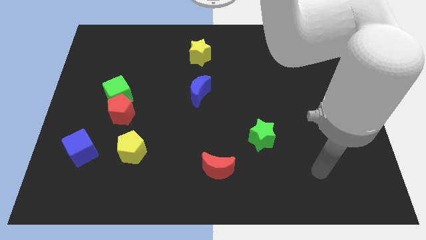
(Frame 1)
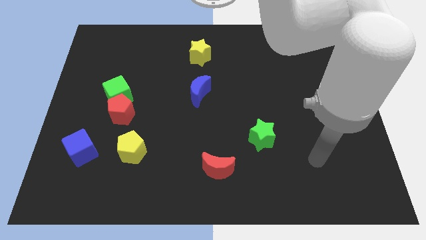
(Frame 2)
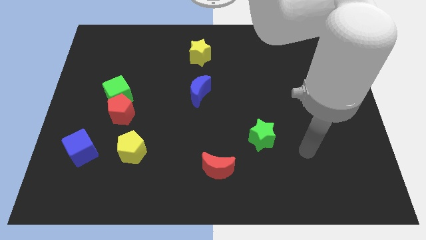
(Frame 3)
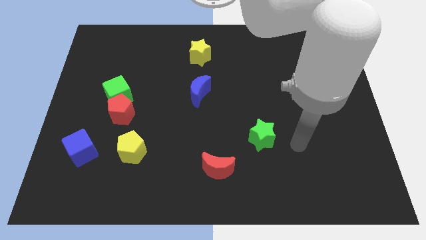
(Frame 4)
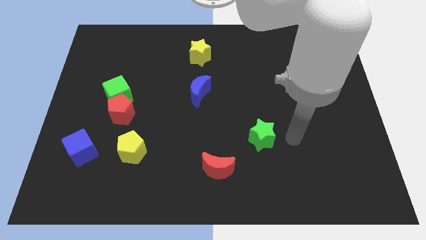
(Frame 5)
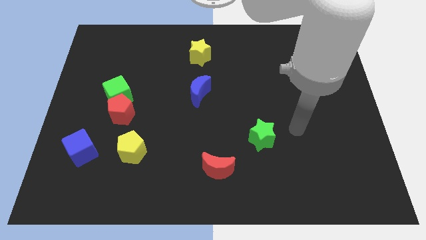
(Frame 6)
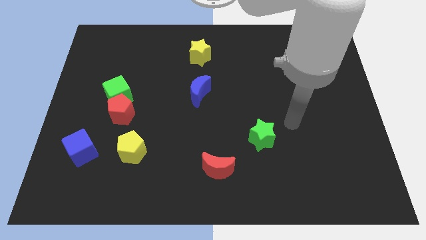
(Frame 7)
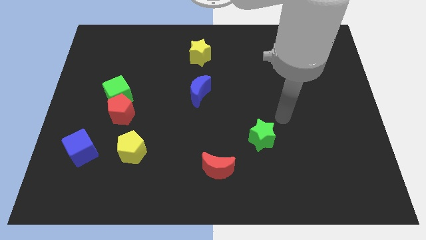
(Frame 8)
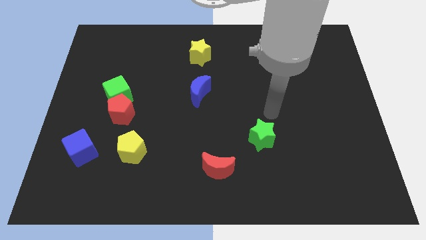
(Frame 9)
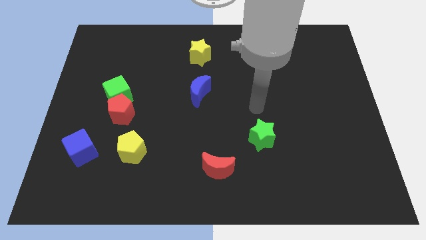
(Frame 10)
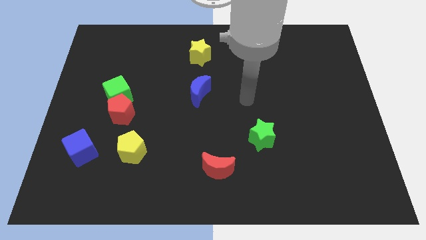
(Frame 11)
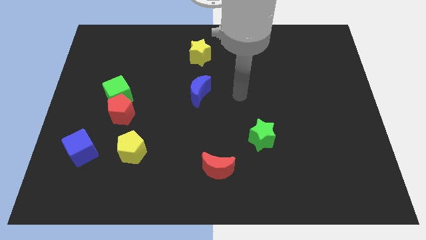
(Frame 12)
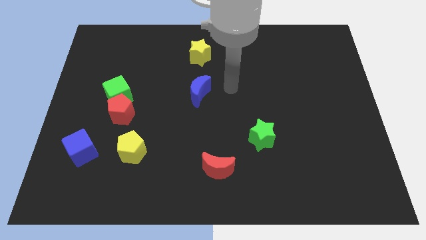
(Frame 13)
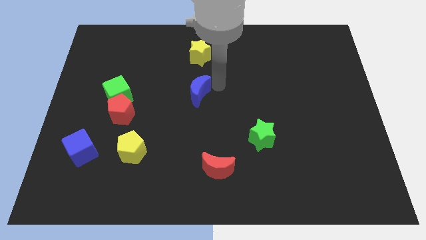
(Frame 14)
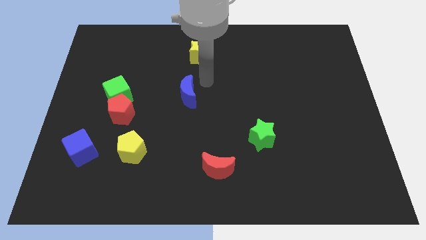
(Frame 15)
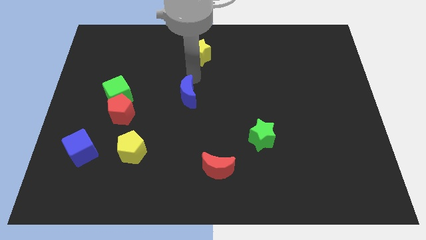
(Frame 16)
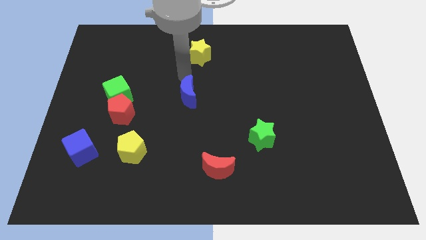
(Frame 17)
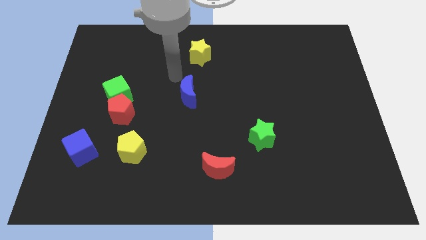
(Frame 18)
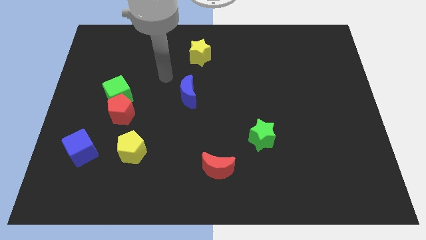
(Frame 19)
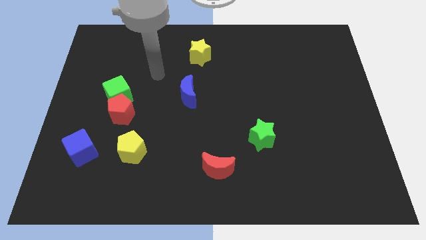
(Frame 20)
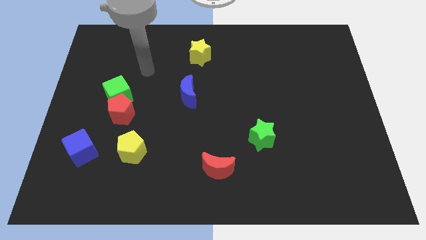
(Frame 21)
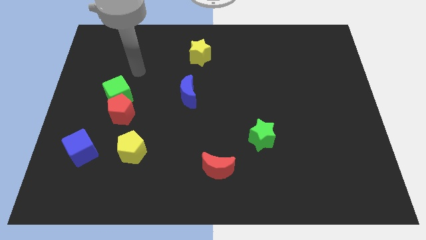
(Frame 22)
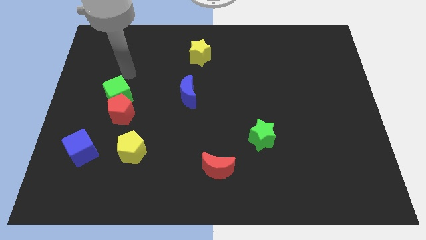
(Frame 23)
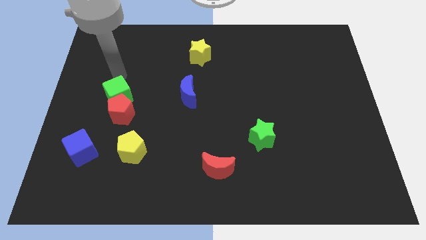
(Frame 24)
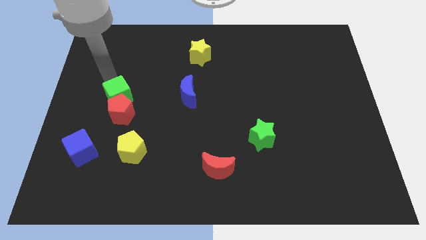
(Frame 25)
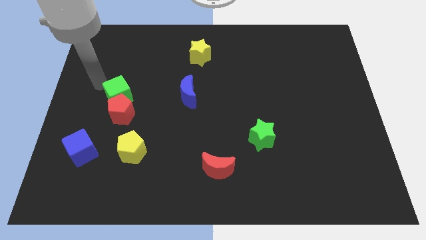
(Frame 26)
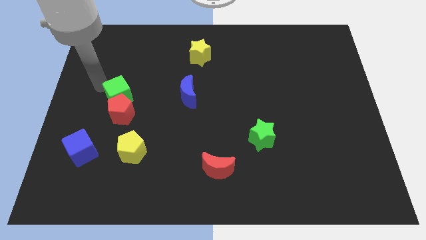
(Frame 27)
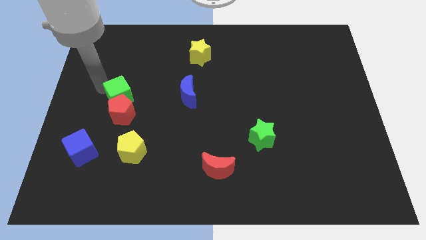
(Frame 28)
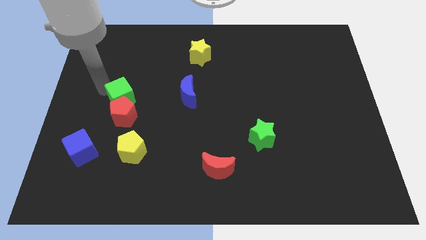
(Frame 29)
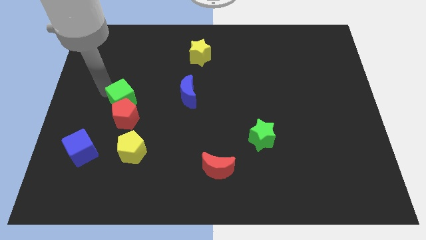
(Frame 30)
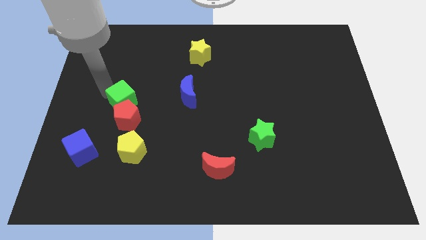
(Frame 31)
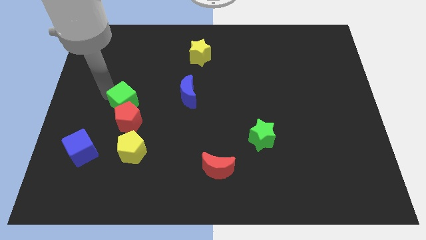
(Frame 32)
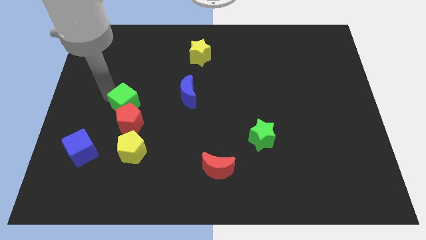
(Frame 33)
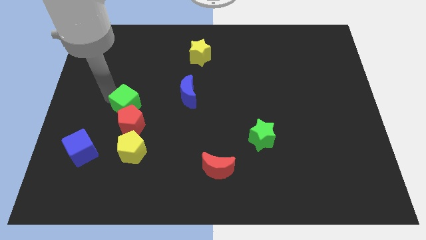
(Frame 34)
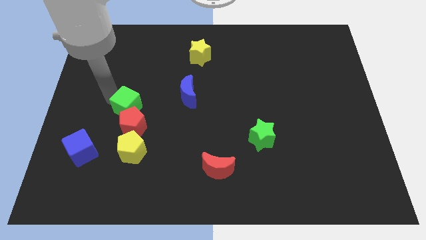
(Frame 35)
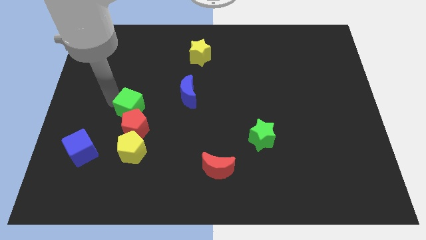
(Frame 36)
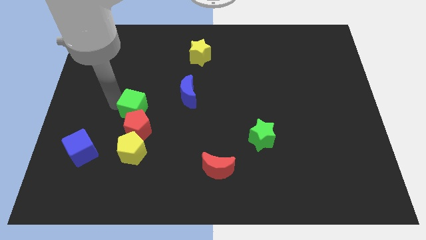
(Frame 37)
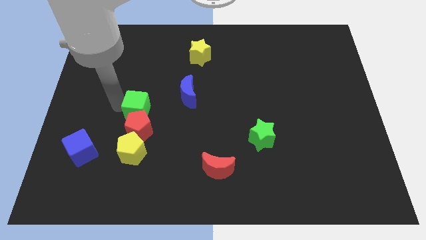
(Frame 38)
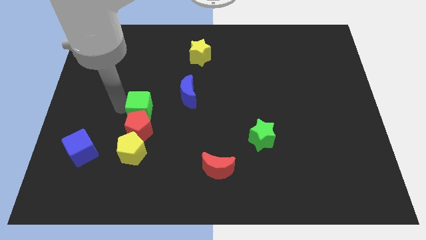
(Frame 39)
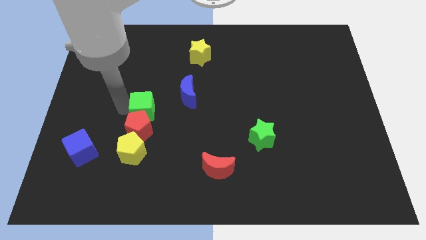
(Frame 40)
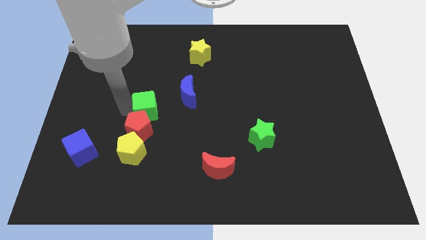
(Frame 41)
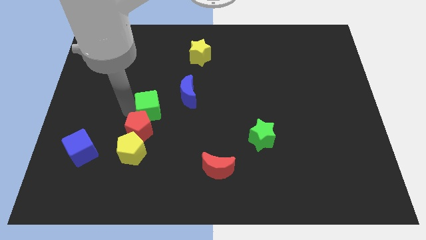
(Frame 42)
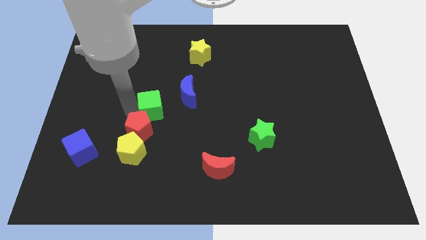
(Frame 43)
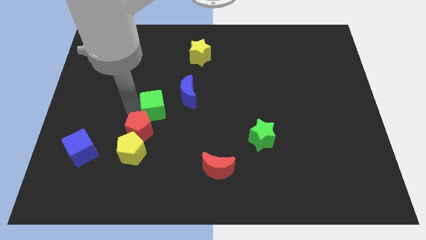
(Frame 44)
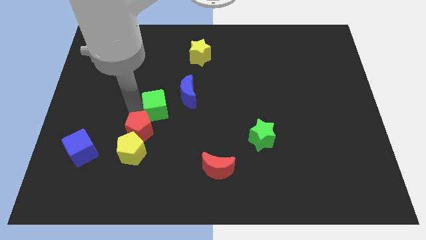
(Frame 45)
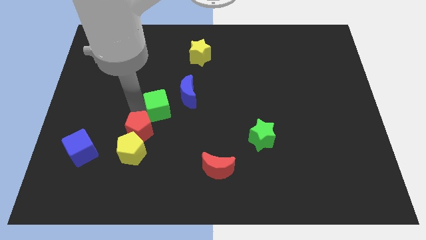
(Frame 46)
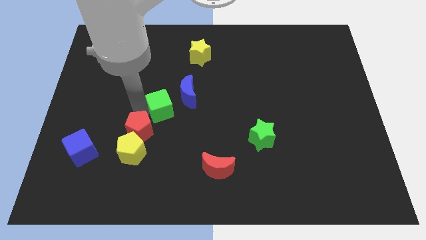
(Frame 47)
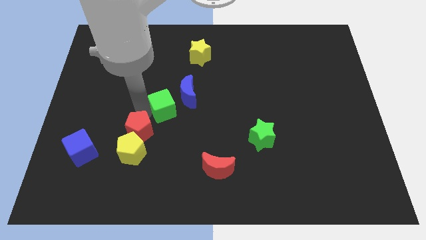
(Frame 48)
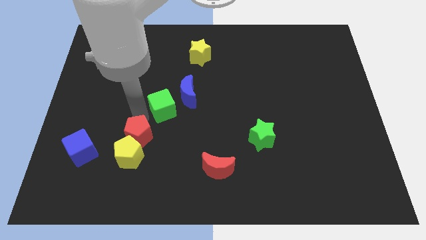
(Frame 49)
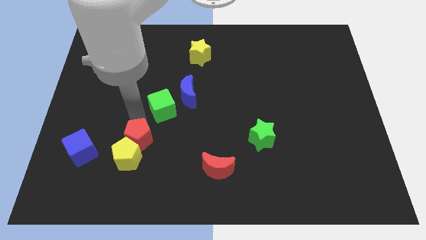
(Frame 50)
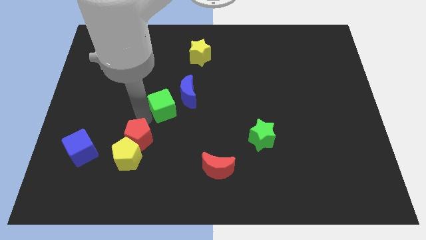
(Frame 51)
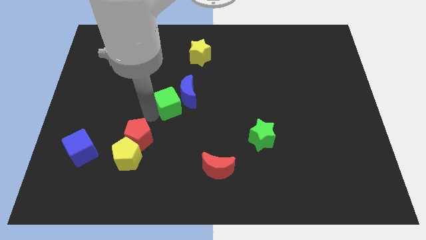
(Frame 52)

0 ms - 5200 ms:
push the green cube close to the blue moon

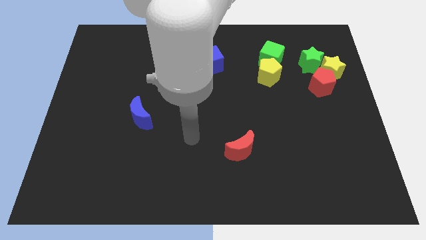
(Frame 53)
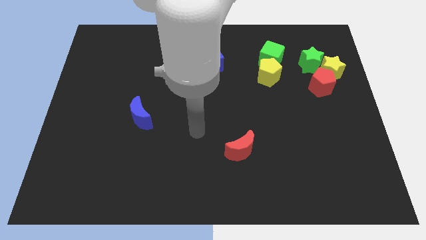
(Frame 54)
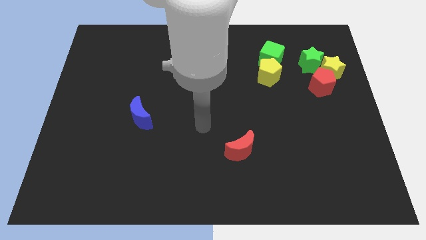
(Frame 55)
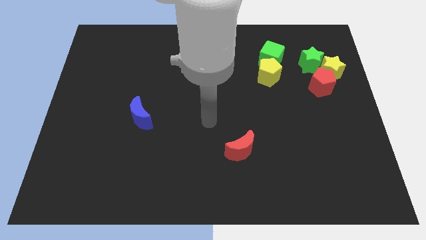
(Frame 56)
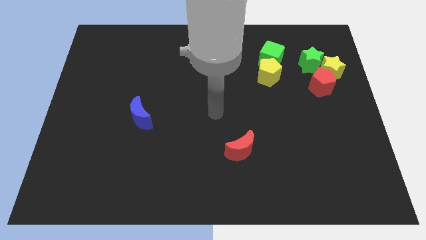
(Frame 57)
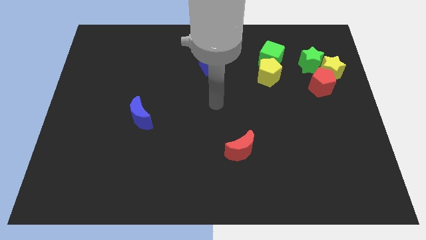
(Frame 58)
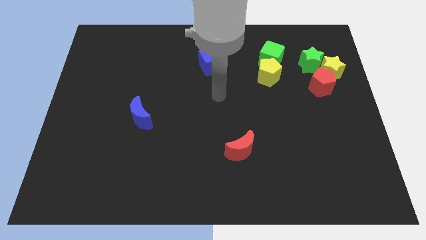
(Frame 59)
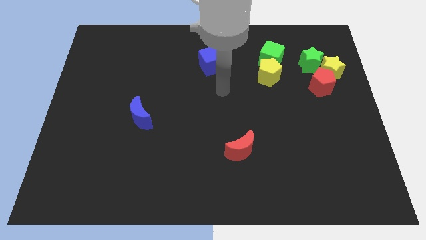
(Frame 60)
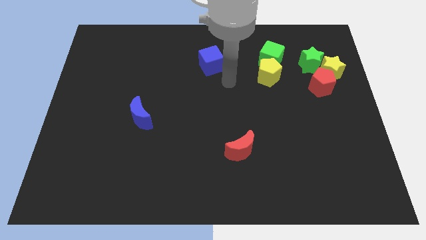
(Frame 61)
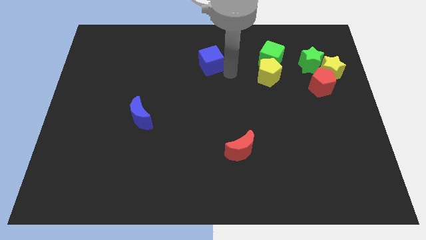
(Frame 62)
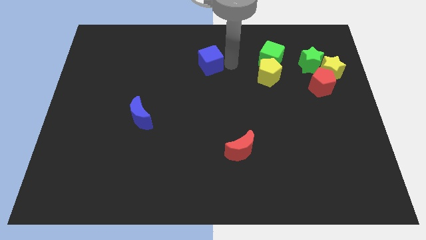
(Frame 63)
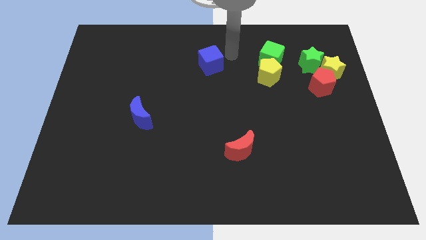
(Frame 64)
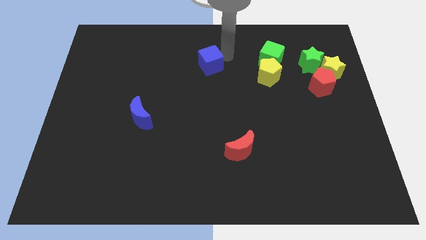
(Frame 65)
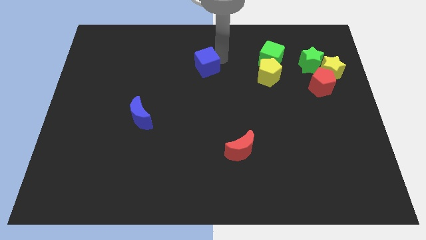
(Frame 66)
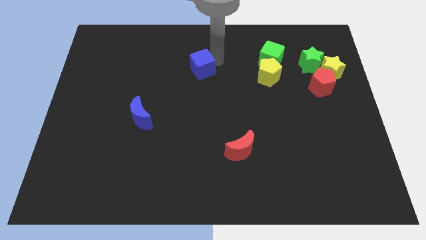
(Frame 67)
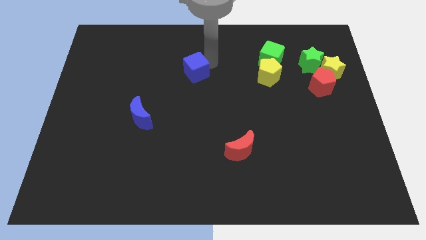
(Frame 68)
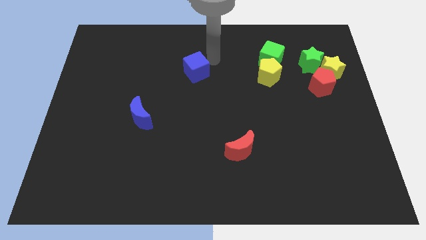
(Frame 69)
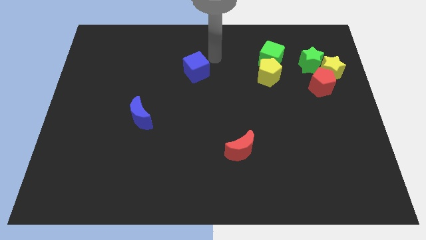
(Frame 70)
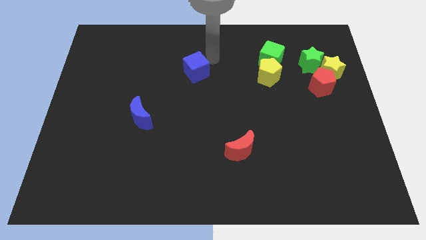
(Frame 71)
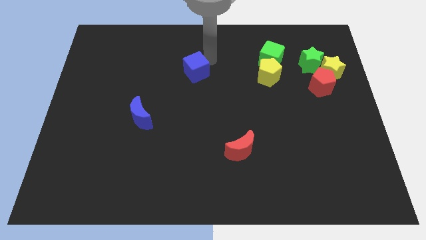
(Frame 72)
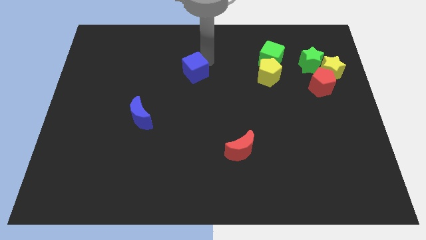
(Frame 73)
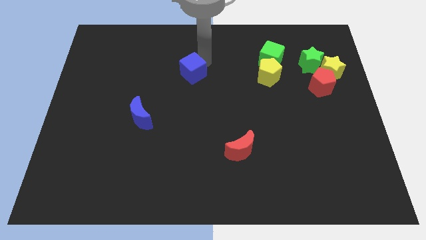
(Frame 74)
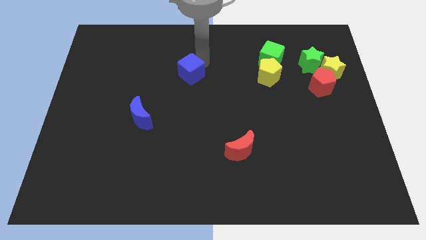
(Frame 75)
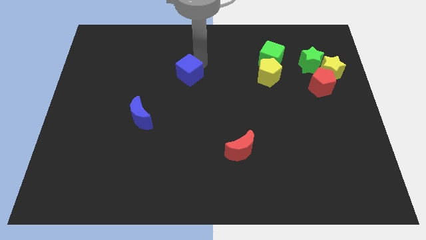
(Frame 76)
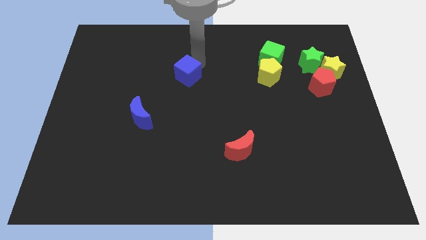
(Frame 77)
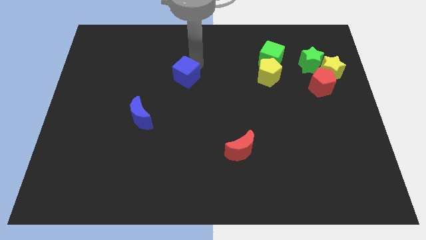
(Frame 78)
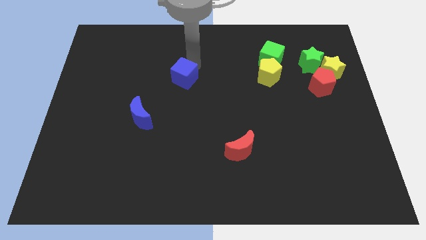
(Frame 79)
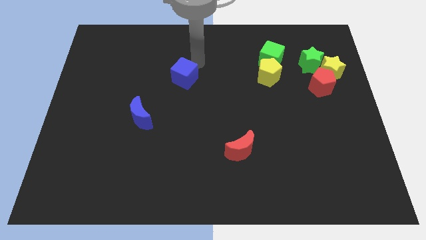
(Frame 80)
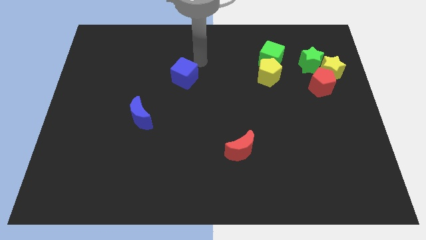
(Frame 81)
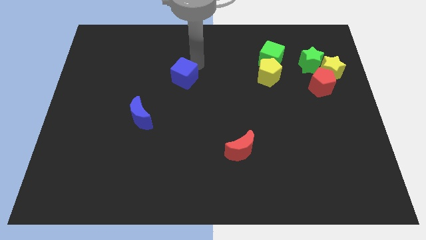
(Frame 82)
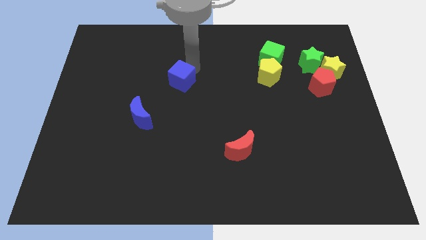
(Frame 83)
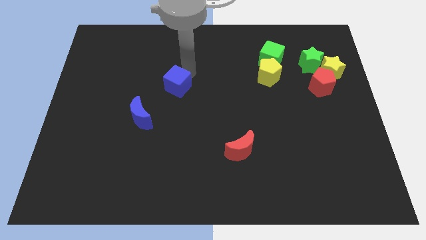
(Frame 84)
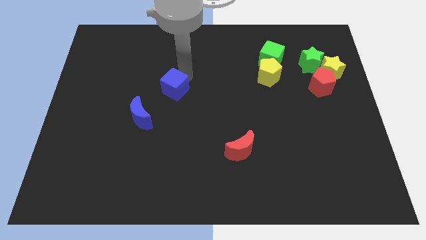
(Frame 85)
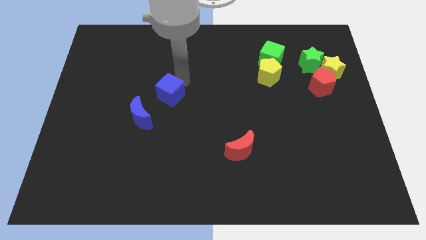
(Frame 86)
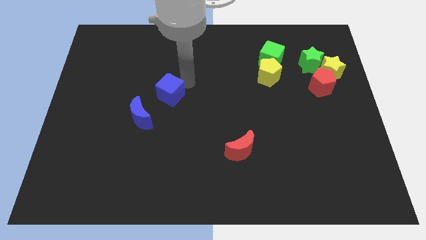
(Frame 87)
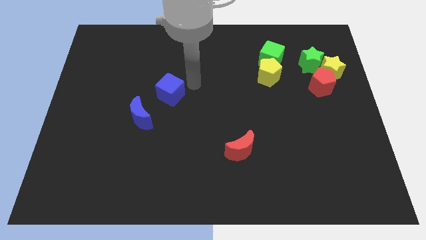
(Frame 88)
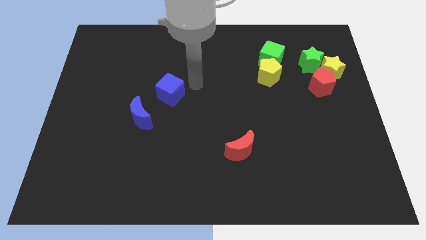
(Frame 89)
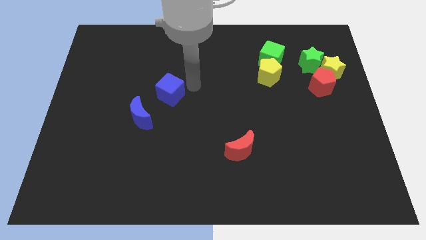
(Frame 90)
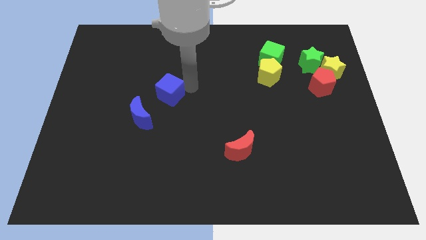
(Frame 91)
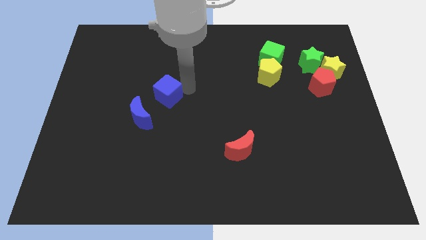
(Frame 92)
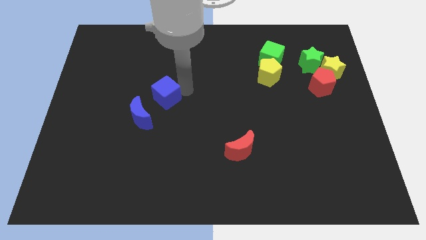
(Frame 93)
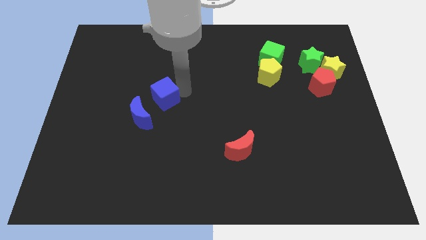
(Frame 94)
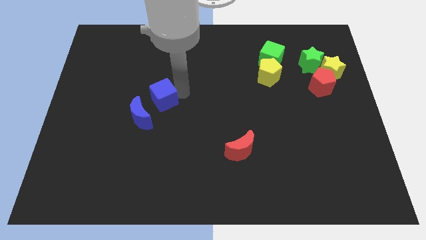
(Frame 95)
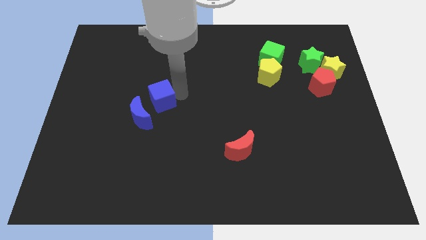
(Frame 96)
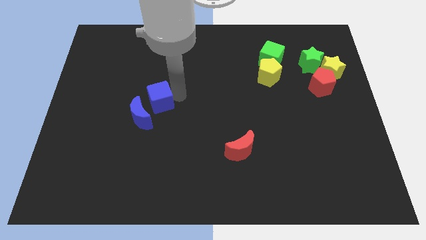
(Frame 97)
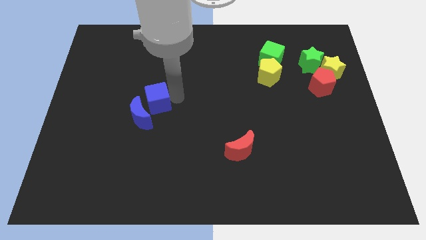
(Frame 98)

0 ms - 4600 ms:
move the blue cube to the blue moon
